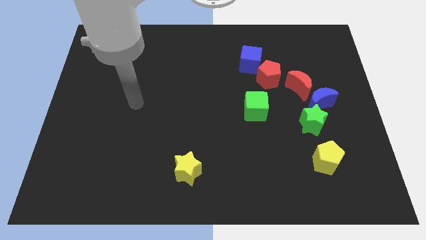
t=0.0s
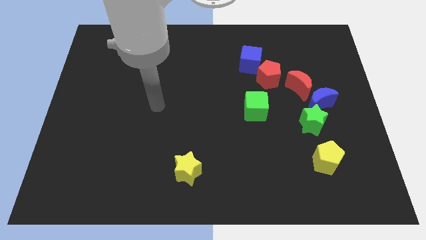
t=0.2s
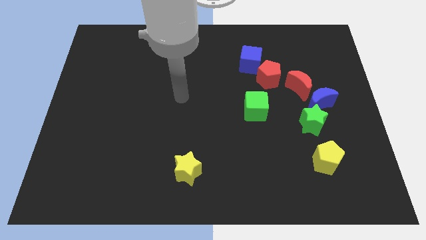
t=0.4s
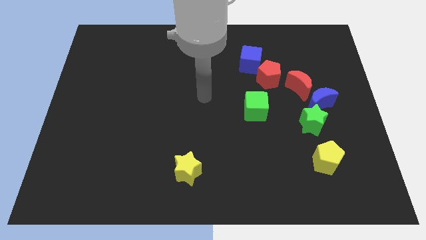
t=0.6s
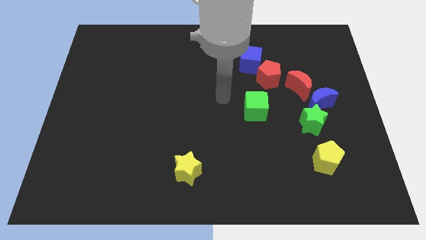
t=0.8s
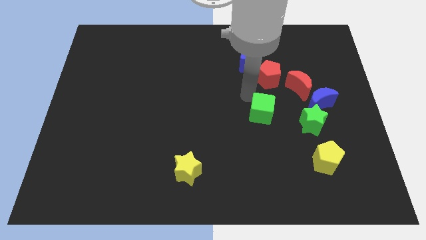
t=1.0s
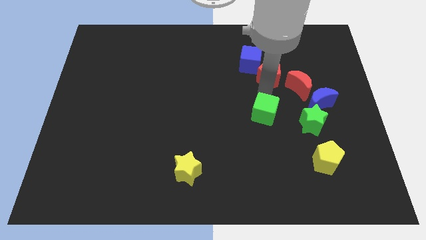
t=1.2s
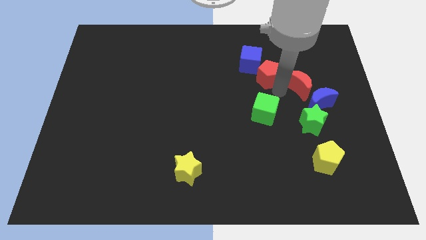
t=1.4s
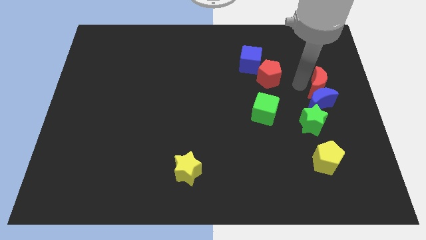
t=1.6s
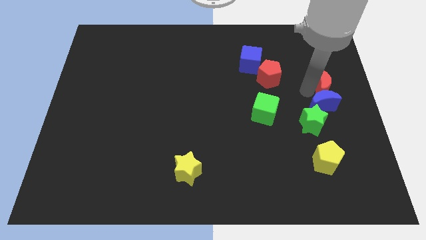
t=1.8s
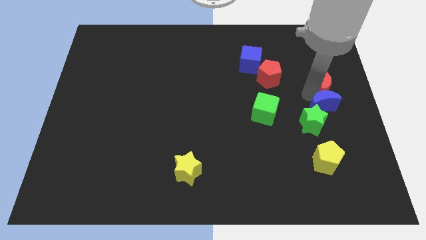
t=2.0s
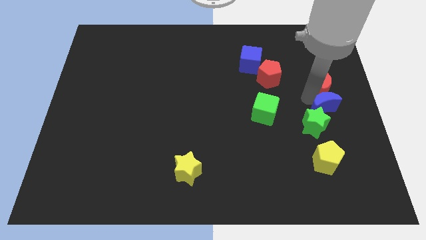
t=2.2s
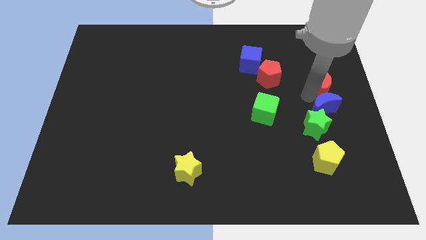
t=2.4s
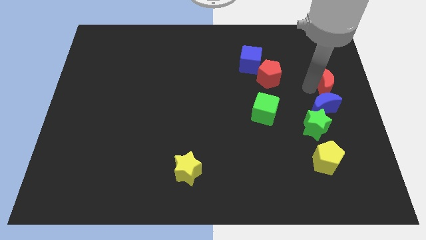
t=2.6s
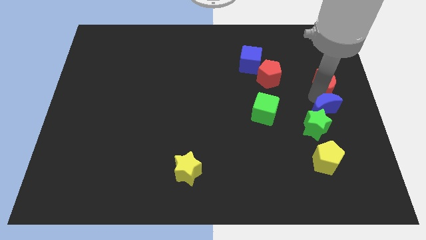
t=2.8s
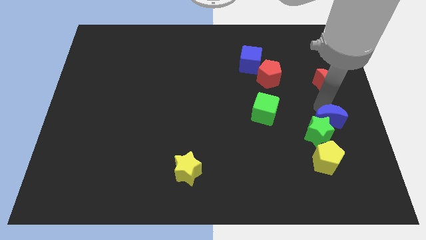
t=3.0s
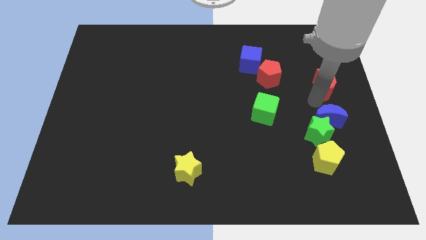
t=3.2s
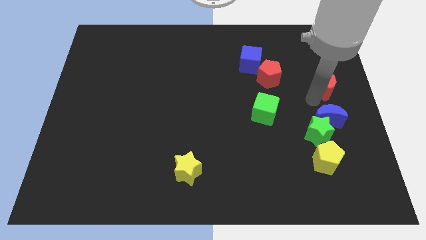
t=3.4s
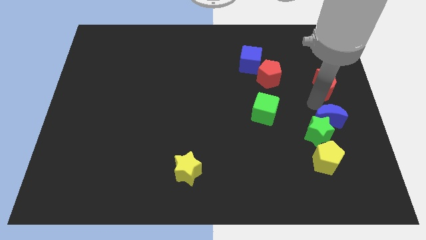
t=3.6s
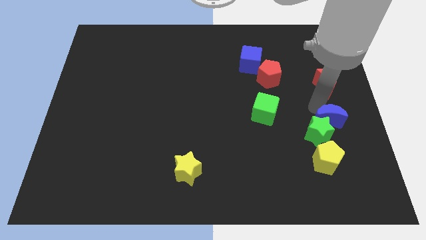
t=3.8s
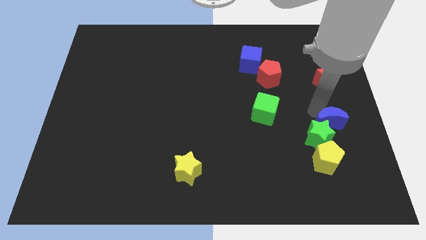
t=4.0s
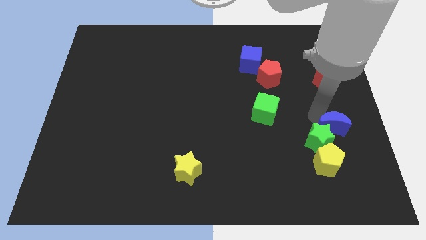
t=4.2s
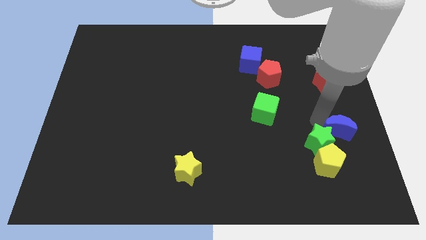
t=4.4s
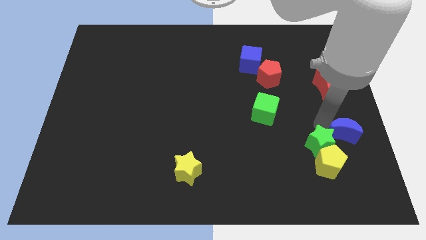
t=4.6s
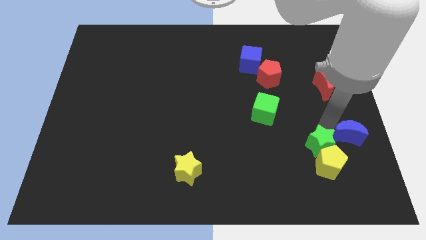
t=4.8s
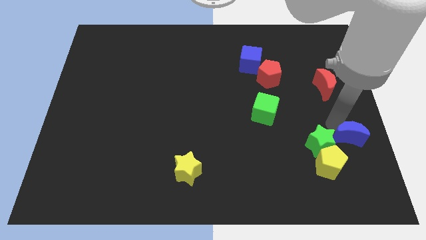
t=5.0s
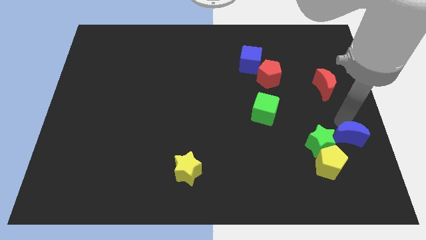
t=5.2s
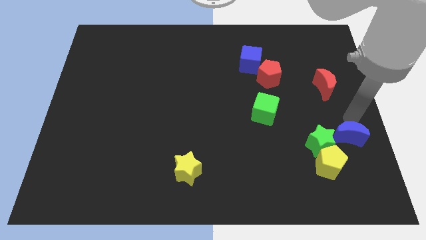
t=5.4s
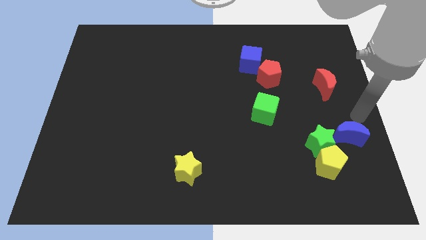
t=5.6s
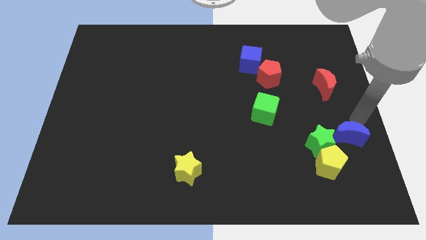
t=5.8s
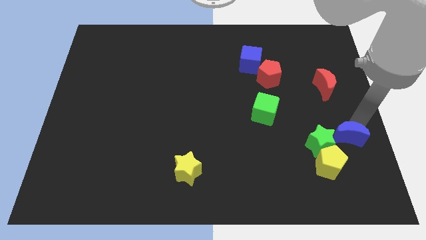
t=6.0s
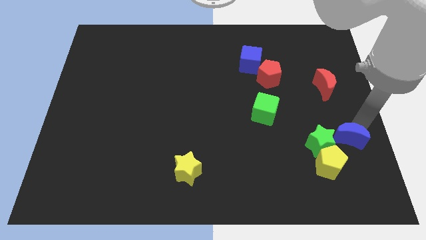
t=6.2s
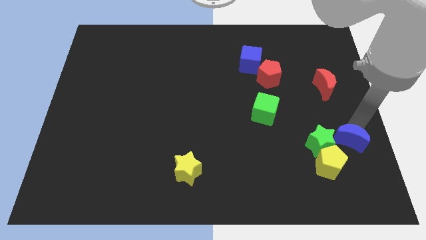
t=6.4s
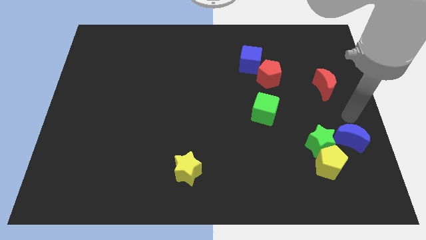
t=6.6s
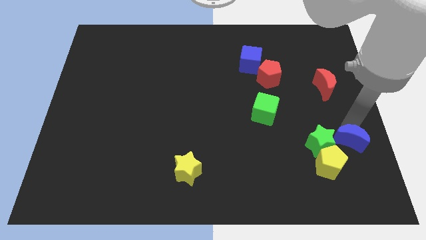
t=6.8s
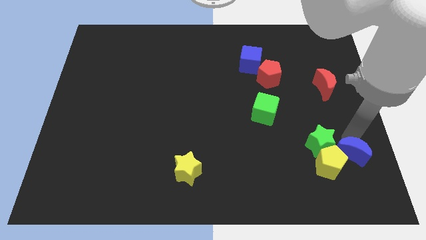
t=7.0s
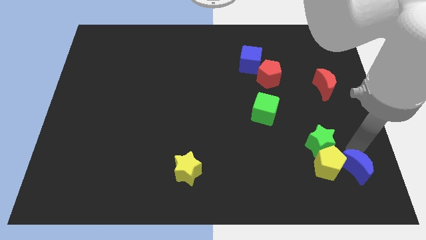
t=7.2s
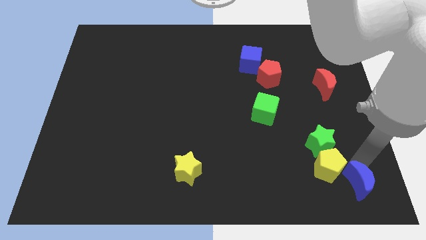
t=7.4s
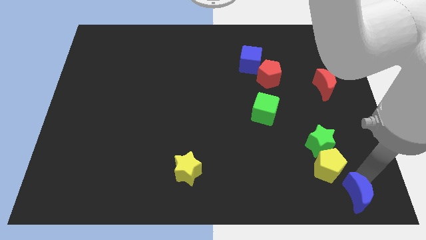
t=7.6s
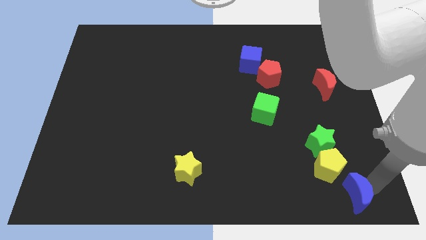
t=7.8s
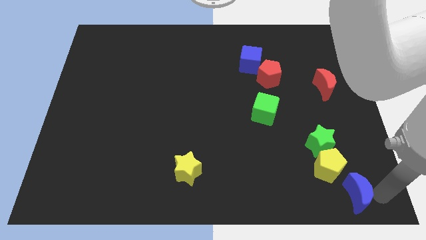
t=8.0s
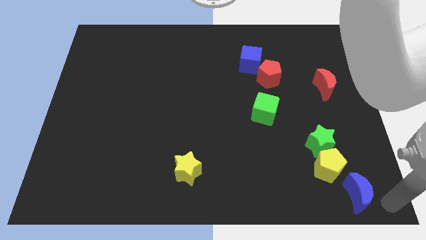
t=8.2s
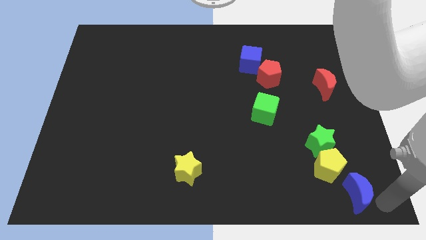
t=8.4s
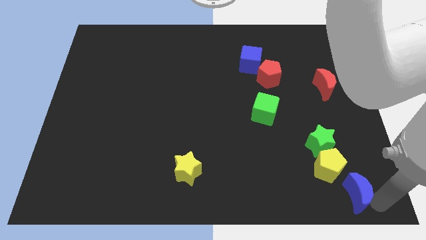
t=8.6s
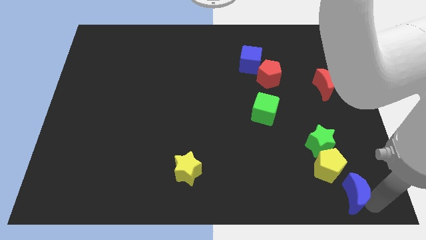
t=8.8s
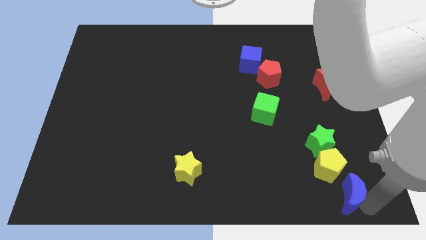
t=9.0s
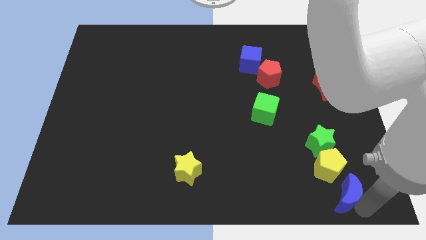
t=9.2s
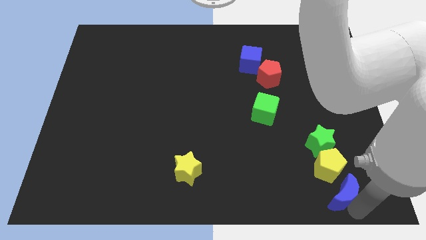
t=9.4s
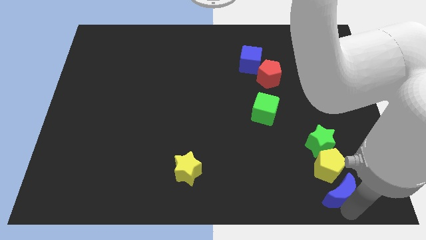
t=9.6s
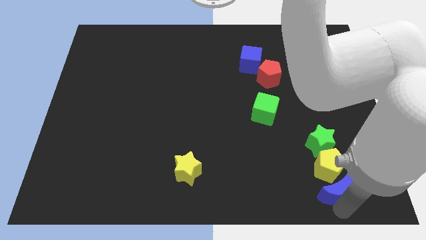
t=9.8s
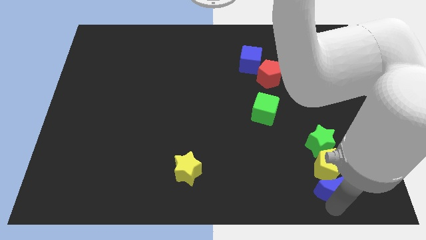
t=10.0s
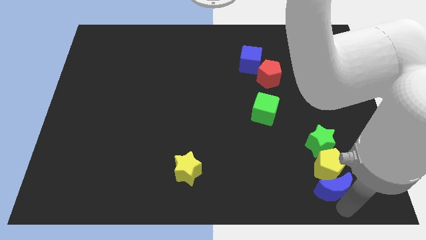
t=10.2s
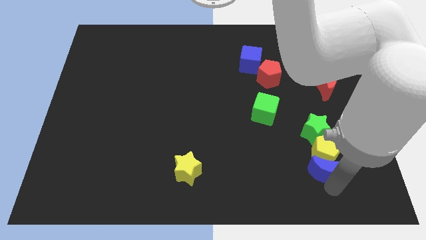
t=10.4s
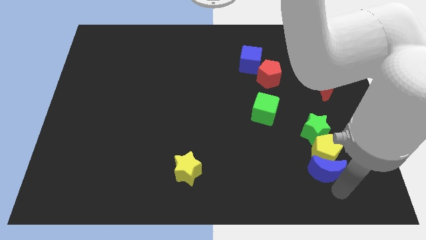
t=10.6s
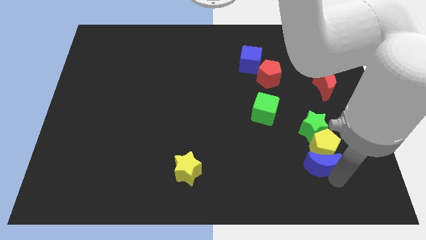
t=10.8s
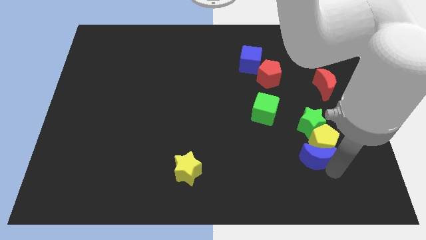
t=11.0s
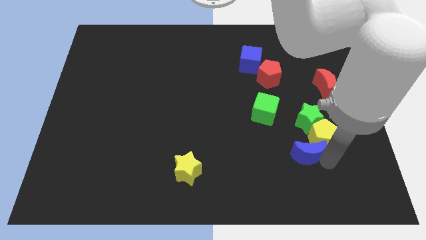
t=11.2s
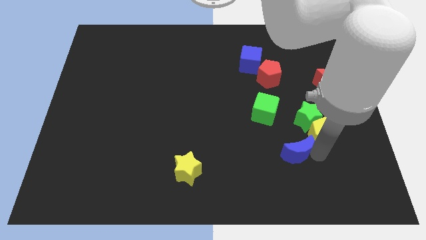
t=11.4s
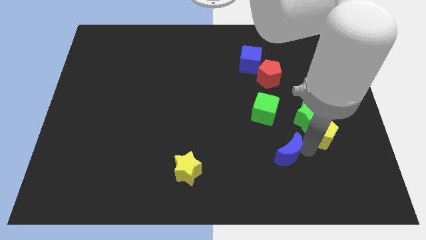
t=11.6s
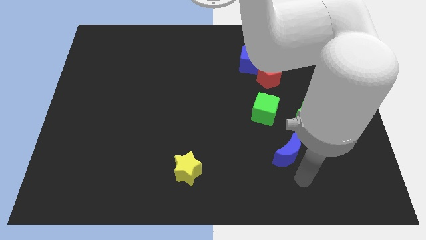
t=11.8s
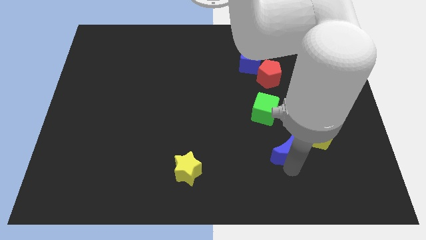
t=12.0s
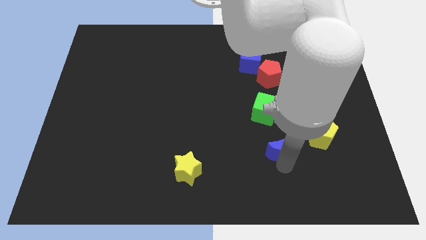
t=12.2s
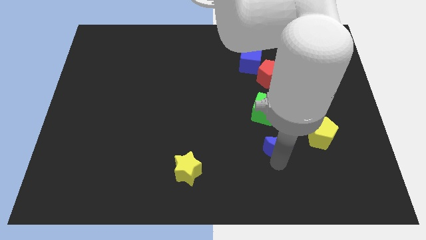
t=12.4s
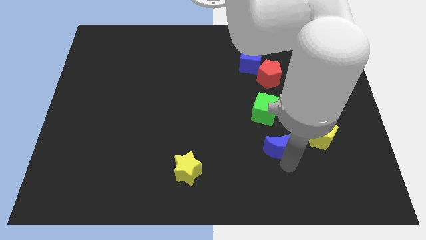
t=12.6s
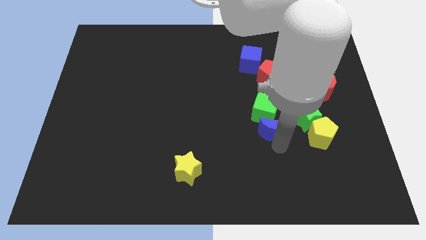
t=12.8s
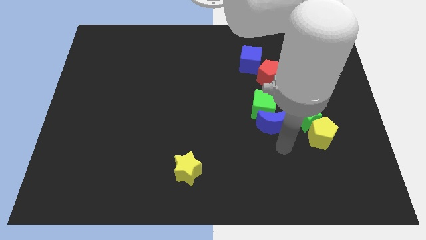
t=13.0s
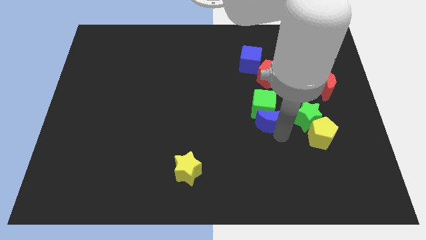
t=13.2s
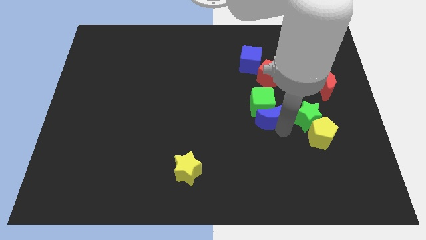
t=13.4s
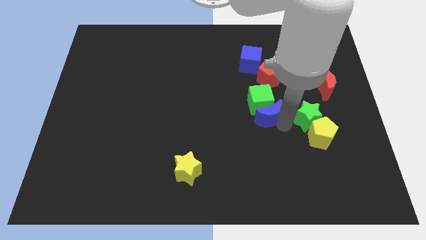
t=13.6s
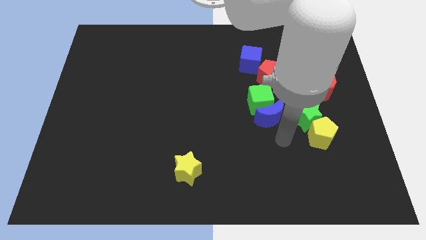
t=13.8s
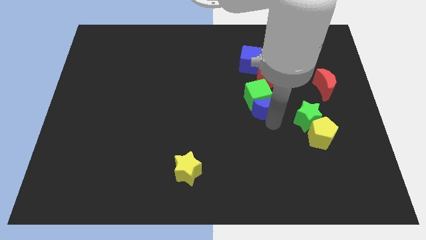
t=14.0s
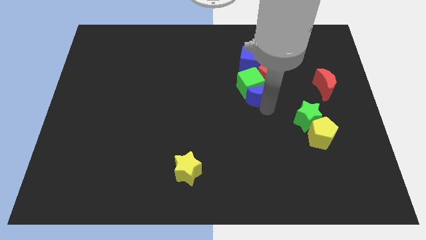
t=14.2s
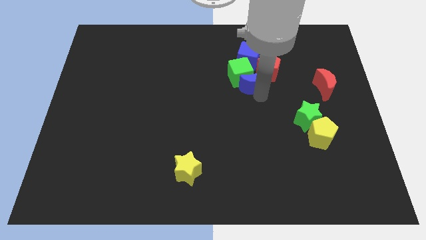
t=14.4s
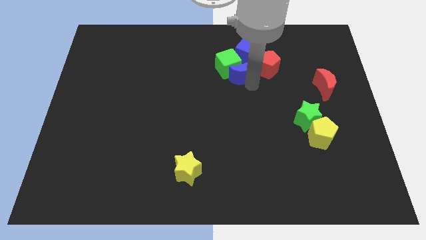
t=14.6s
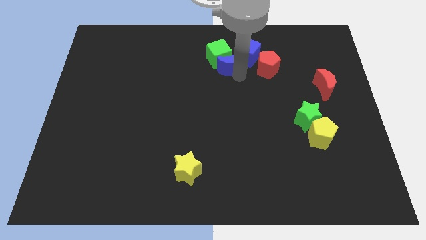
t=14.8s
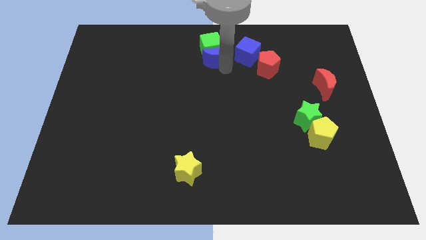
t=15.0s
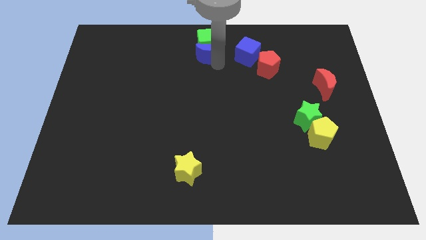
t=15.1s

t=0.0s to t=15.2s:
move the blue moon to the towards your base
